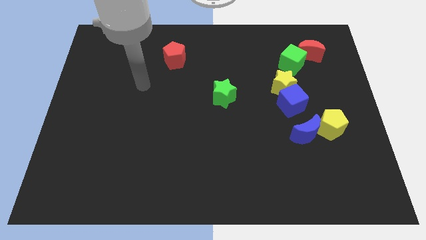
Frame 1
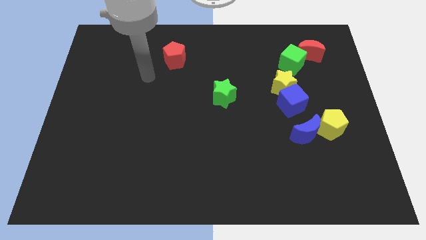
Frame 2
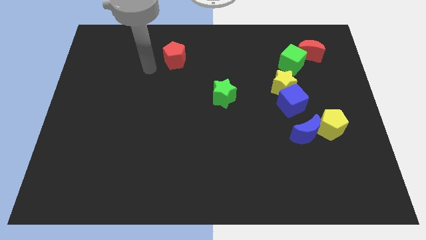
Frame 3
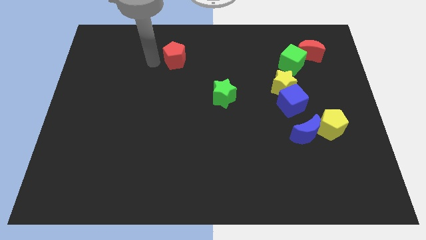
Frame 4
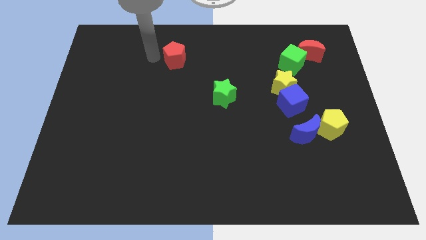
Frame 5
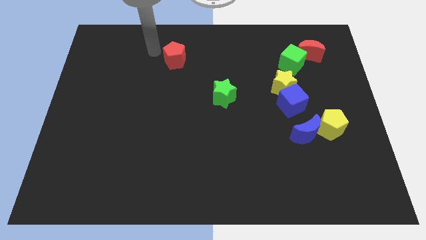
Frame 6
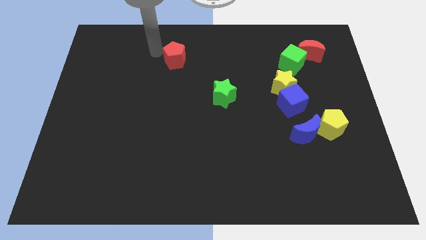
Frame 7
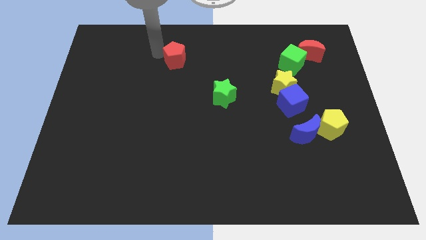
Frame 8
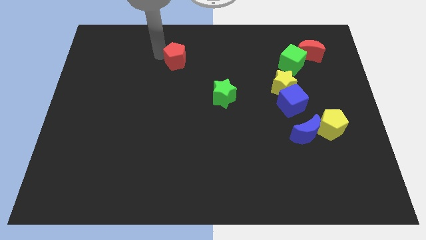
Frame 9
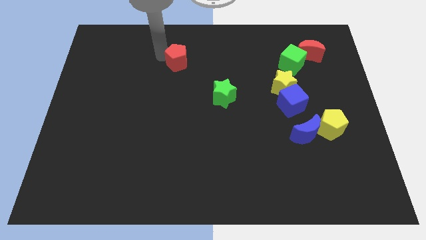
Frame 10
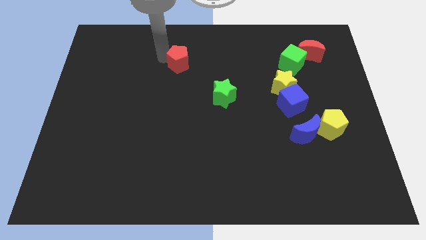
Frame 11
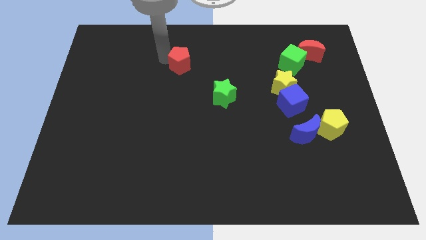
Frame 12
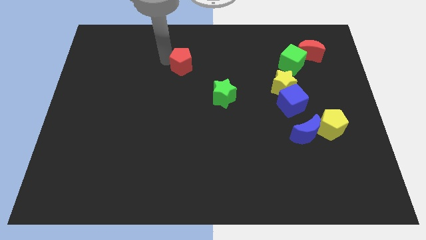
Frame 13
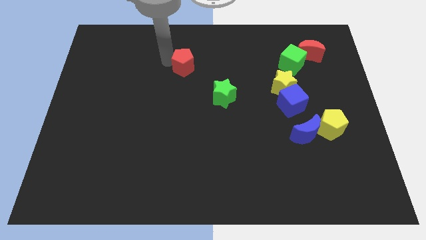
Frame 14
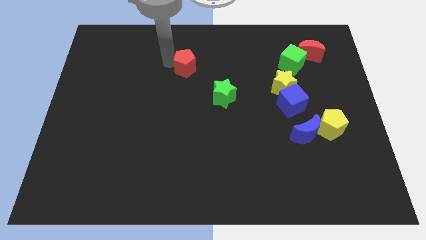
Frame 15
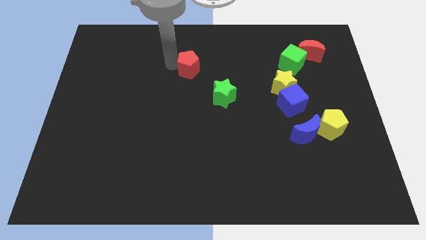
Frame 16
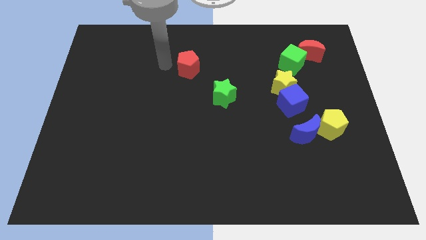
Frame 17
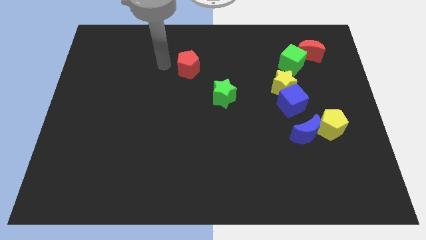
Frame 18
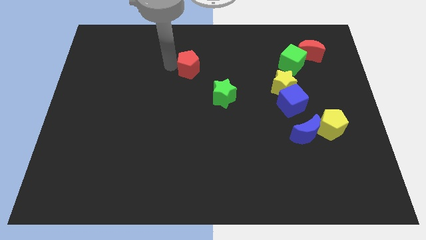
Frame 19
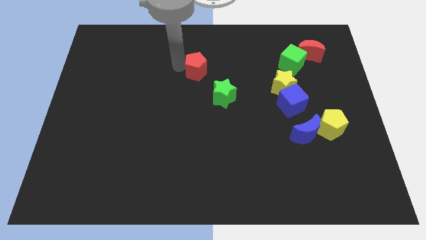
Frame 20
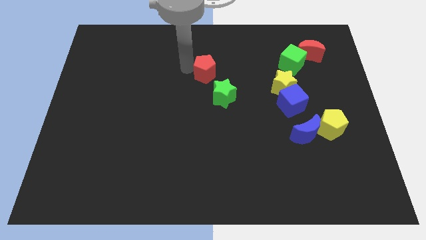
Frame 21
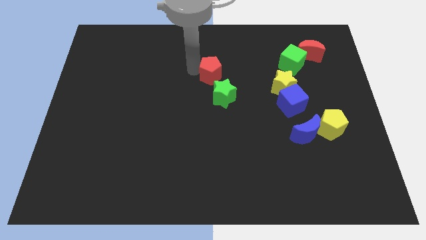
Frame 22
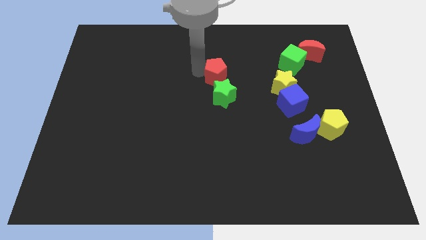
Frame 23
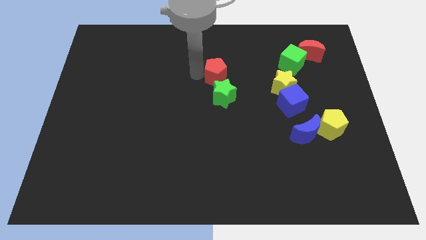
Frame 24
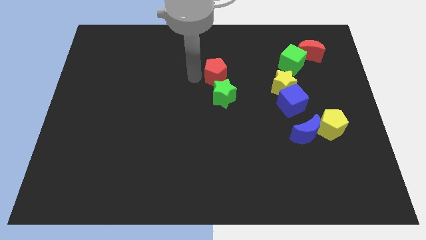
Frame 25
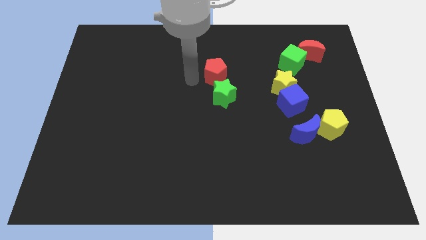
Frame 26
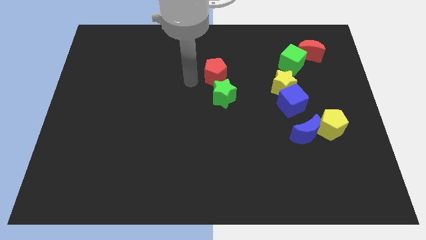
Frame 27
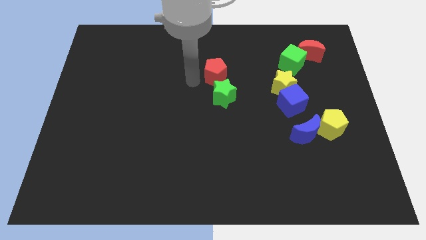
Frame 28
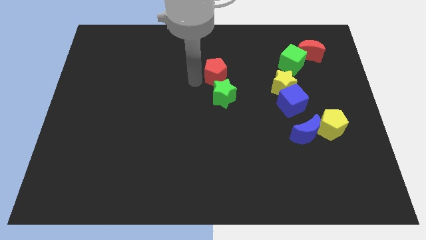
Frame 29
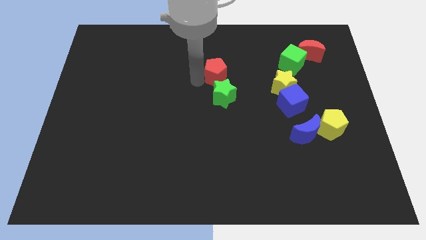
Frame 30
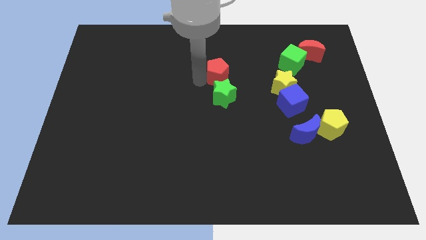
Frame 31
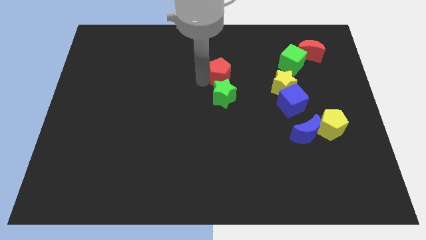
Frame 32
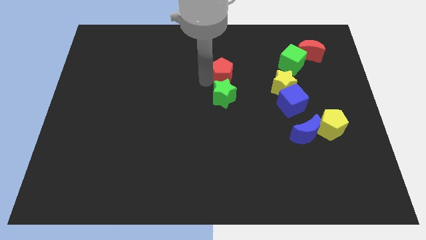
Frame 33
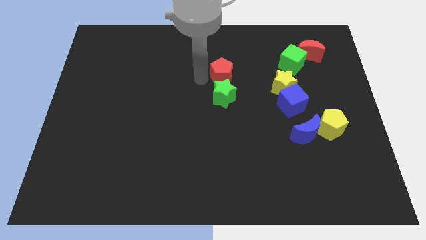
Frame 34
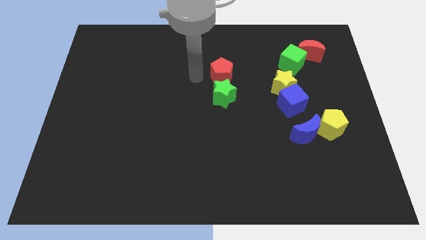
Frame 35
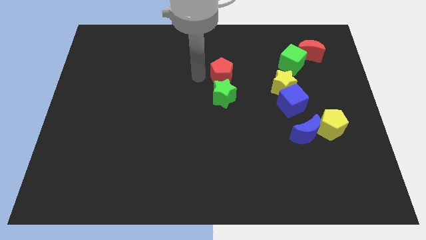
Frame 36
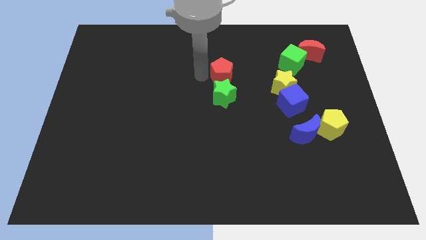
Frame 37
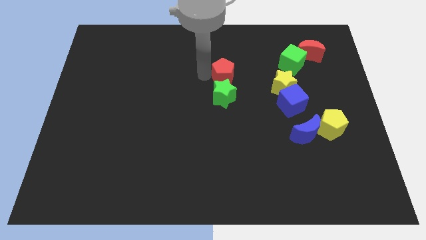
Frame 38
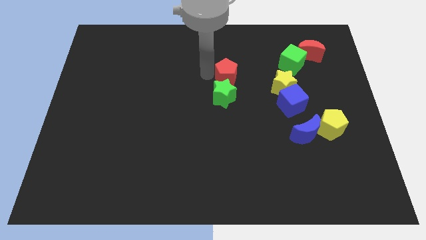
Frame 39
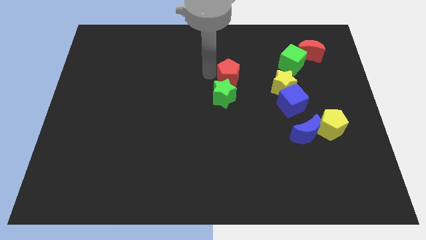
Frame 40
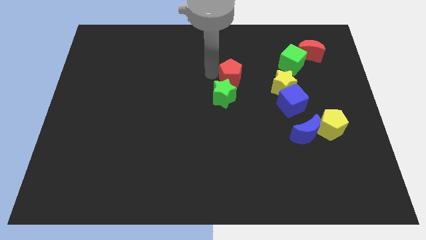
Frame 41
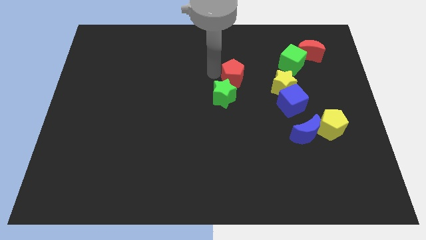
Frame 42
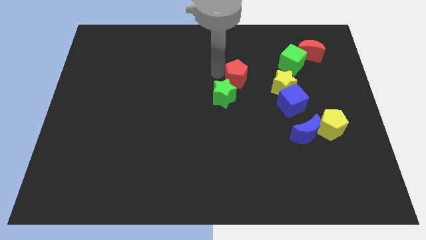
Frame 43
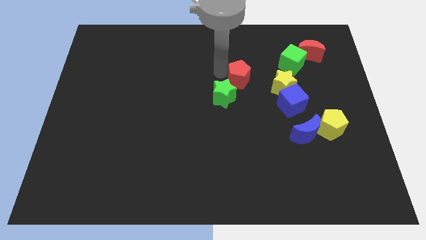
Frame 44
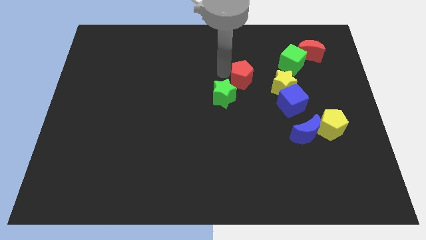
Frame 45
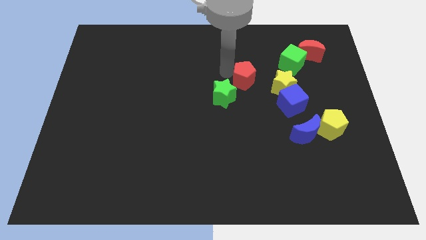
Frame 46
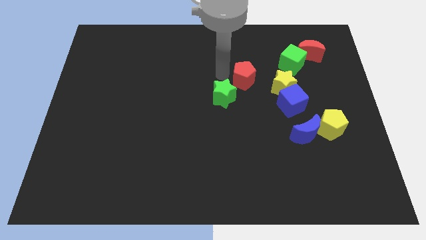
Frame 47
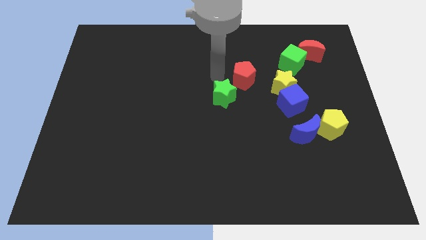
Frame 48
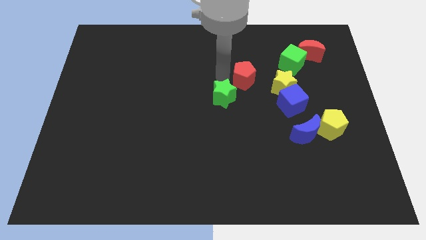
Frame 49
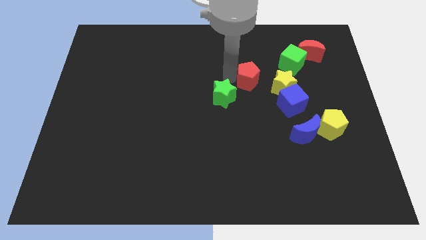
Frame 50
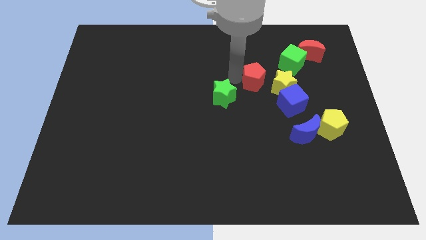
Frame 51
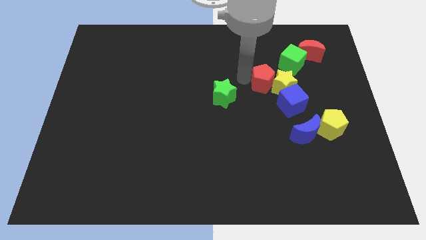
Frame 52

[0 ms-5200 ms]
put the red pentagon next to the yellow star

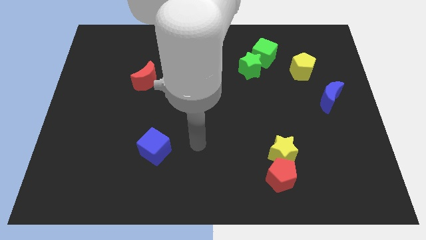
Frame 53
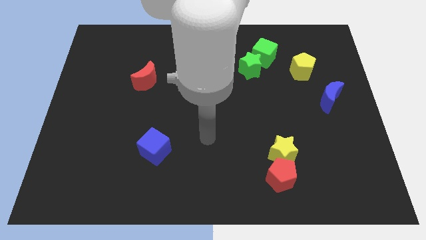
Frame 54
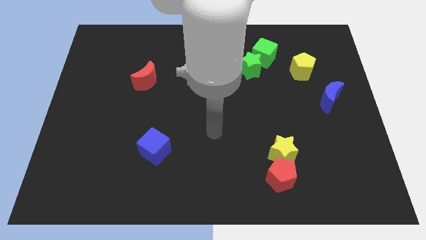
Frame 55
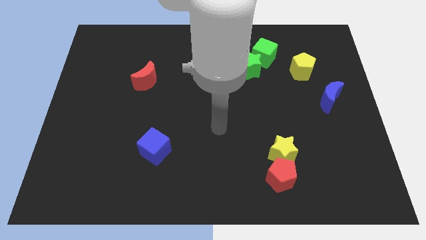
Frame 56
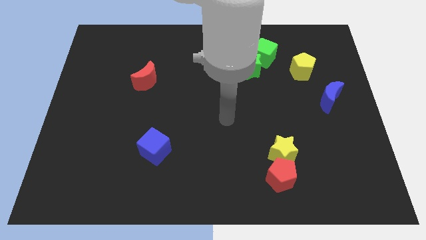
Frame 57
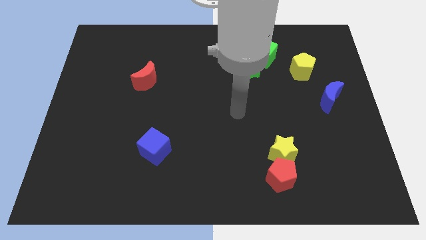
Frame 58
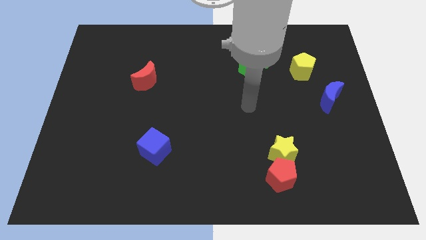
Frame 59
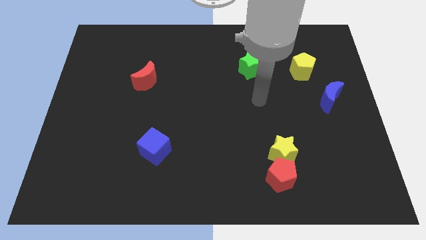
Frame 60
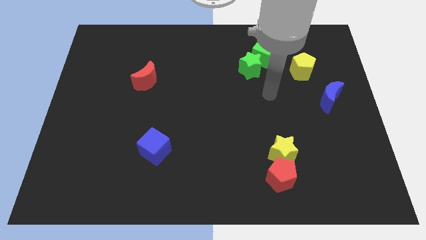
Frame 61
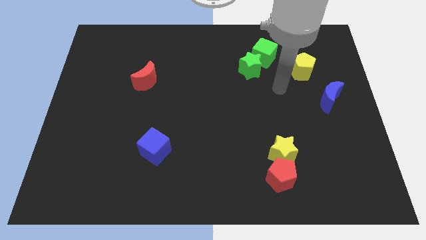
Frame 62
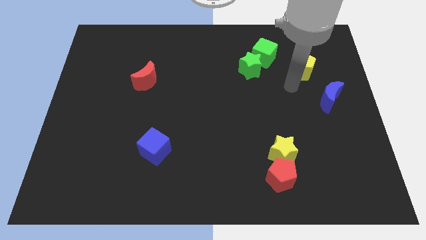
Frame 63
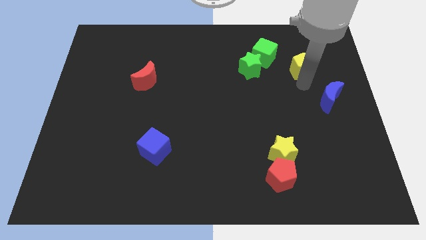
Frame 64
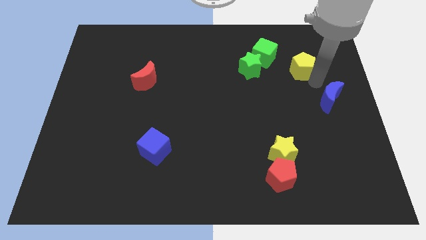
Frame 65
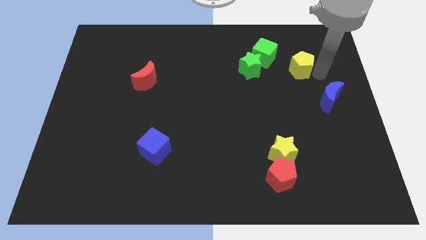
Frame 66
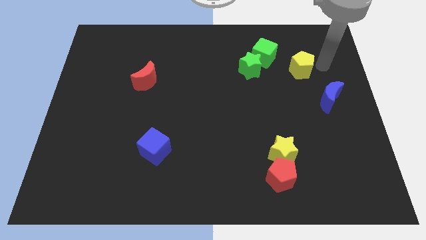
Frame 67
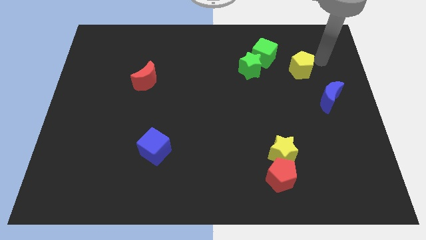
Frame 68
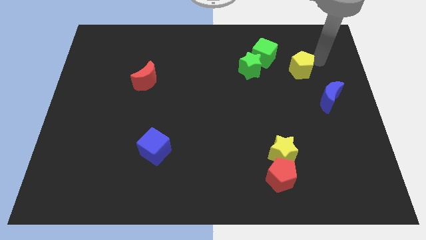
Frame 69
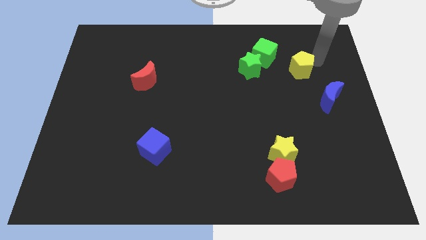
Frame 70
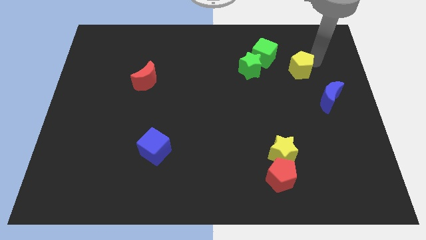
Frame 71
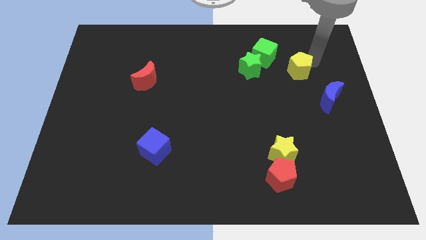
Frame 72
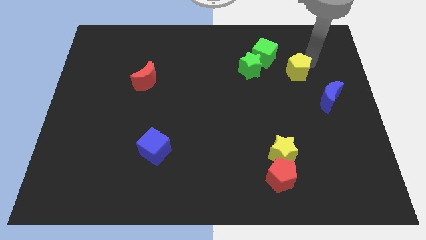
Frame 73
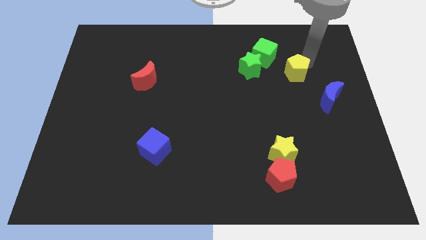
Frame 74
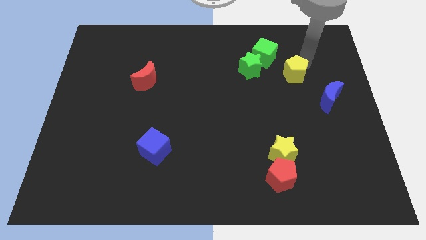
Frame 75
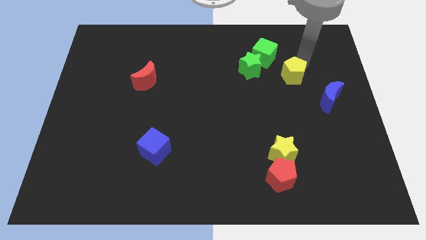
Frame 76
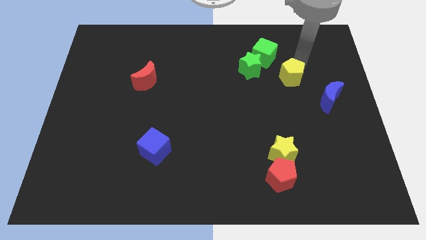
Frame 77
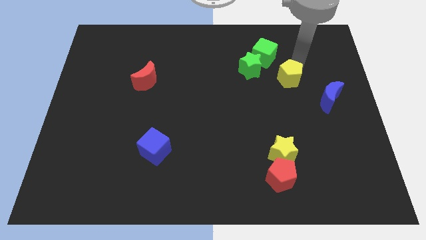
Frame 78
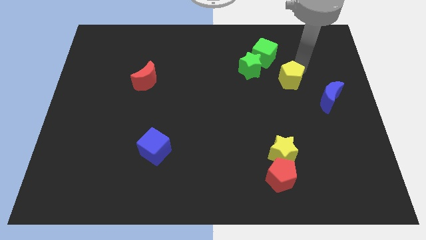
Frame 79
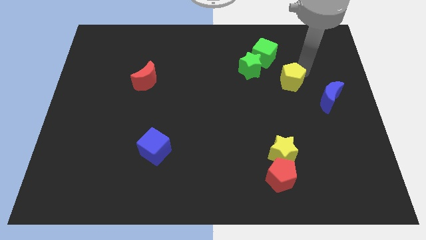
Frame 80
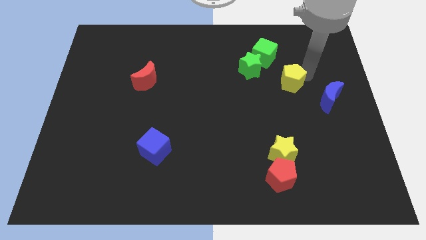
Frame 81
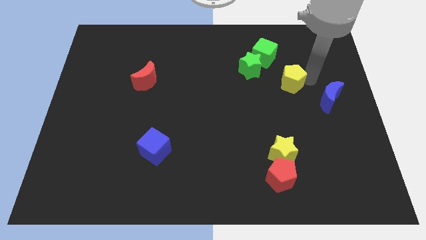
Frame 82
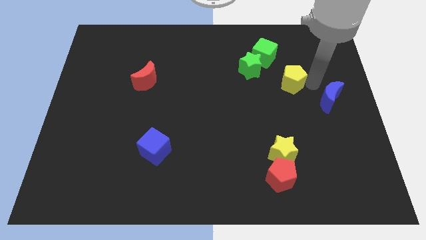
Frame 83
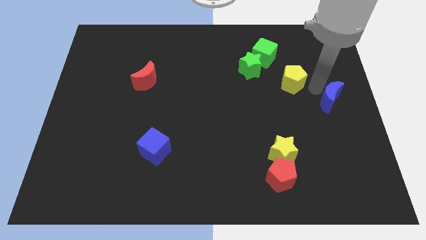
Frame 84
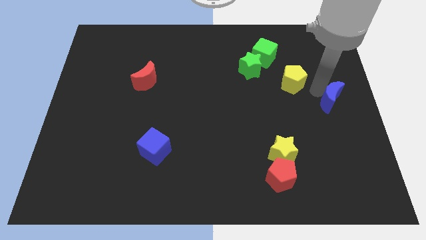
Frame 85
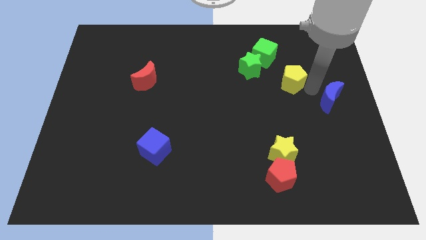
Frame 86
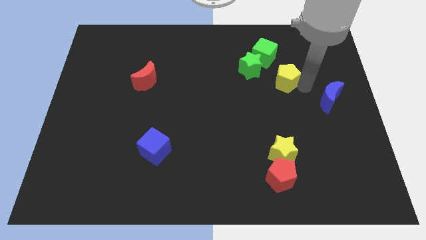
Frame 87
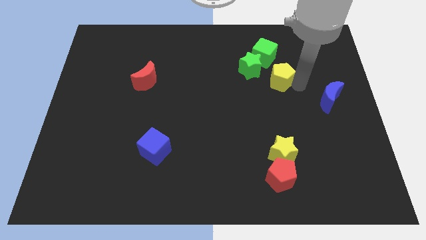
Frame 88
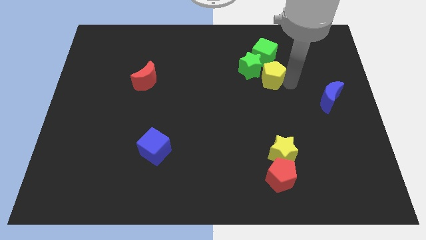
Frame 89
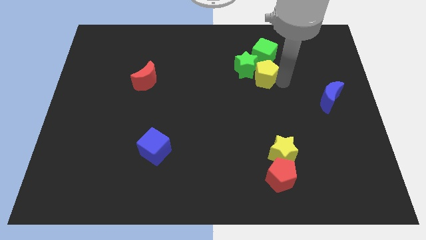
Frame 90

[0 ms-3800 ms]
move the yellow pentagon close to the green star
